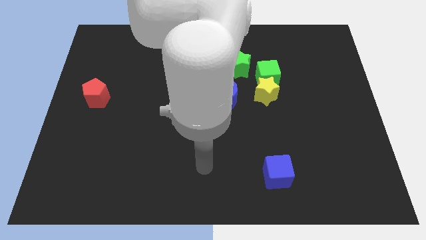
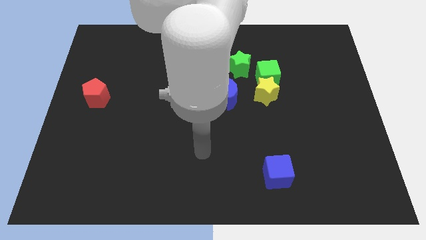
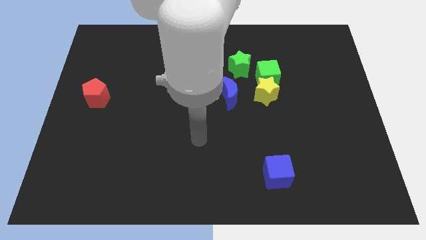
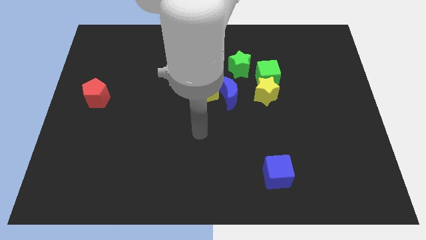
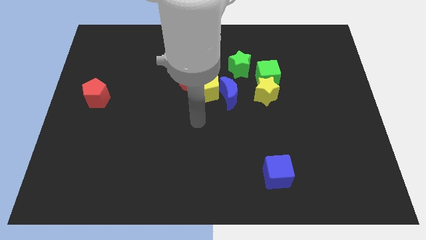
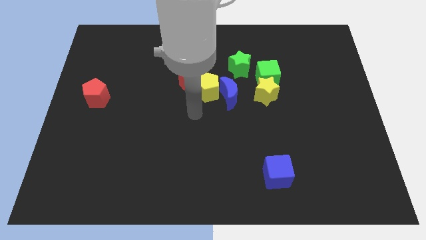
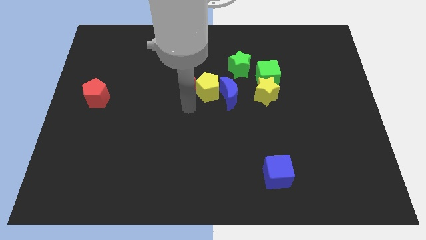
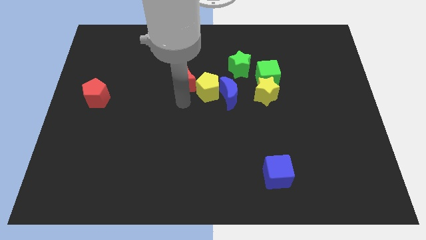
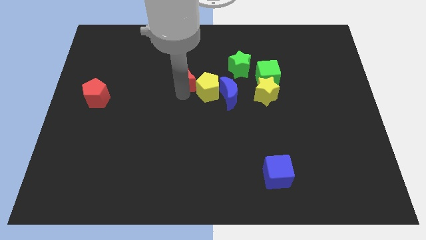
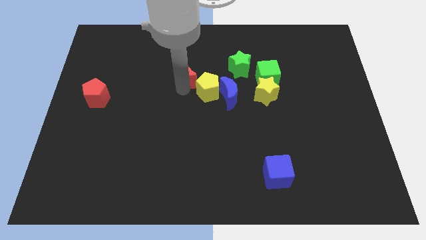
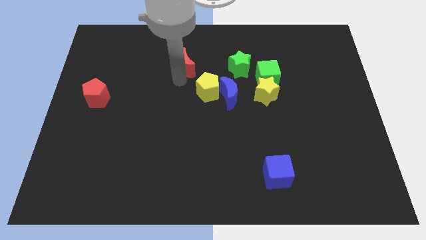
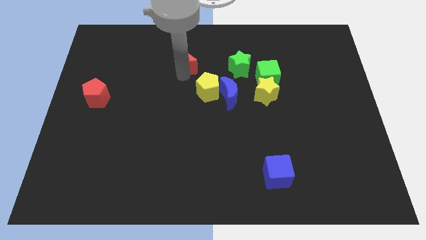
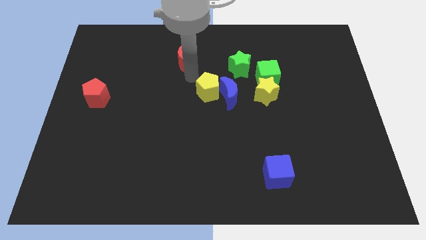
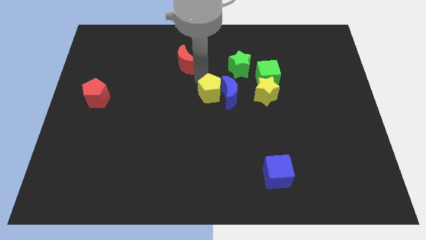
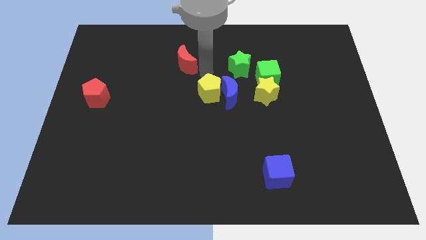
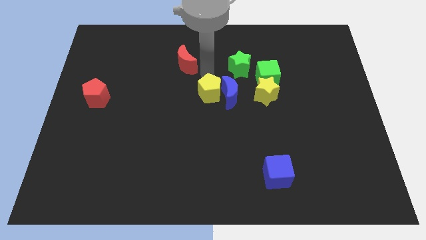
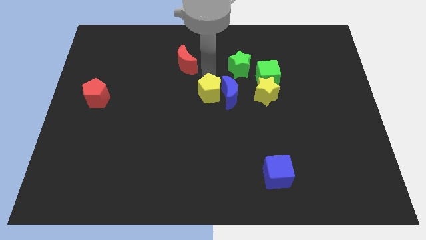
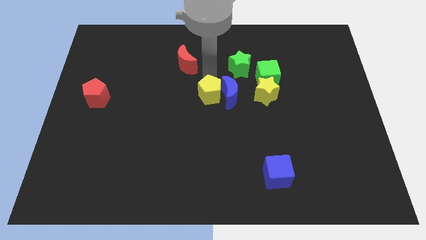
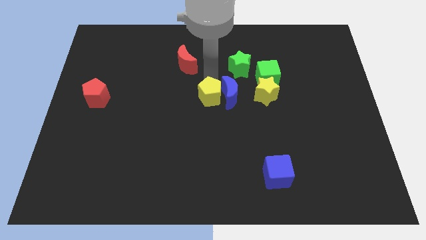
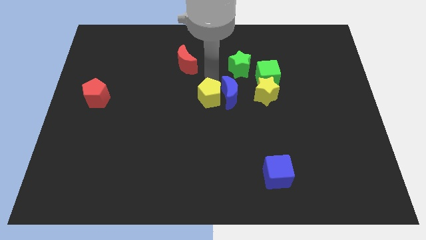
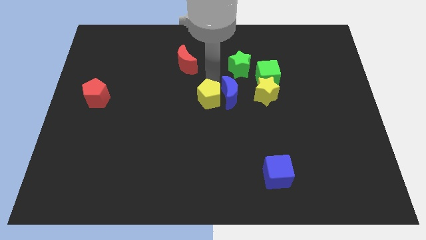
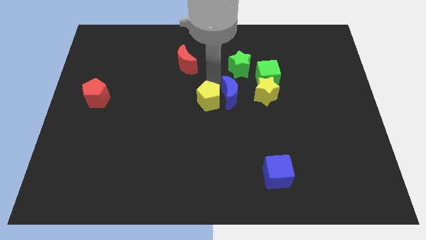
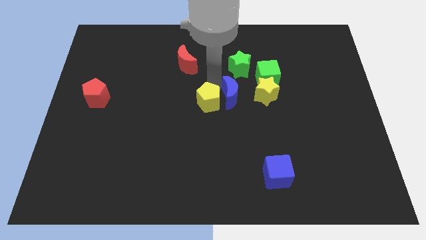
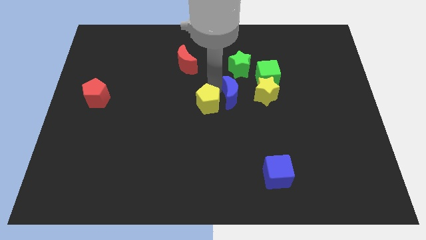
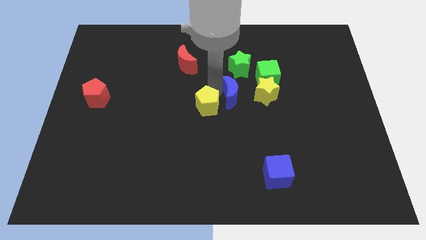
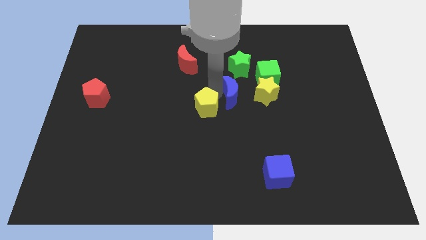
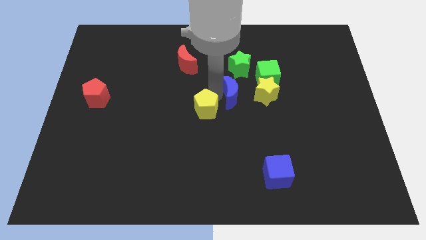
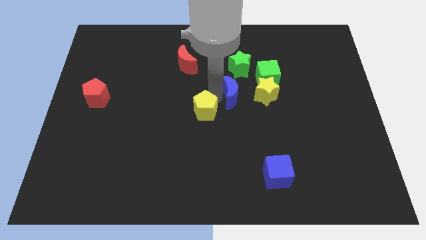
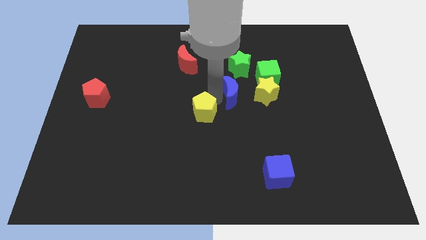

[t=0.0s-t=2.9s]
separate the yellow pentagon from the blue moon and red moon

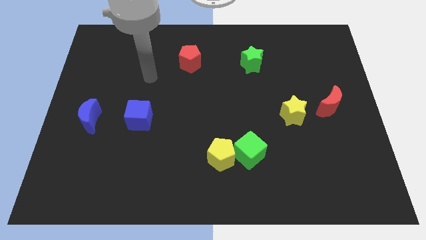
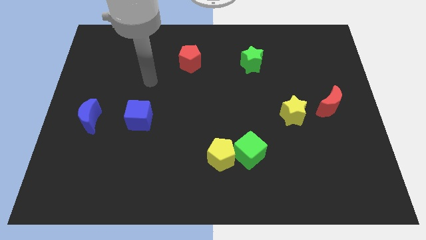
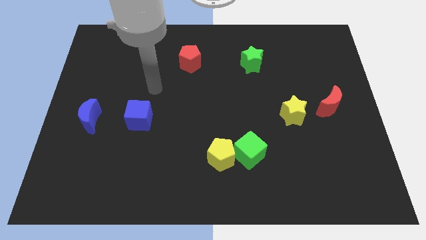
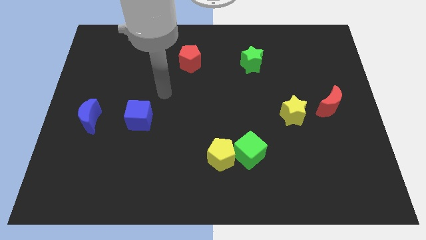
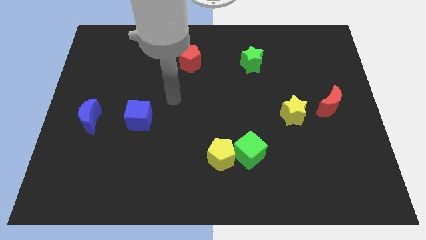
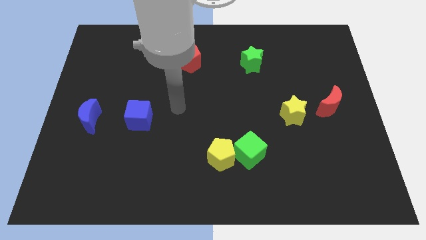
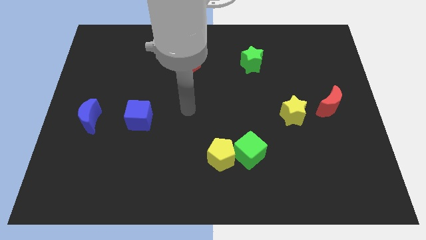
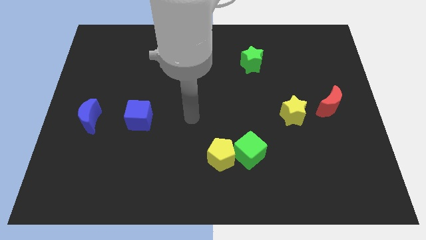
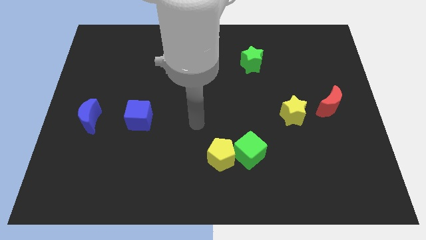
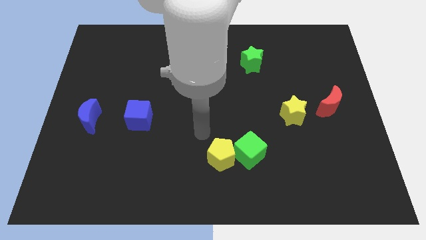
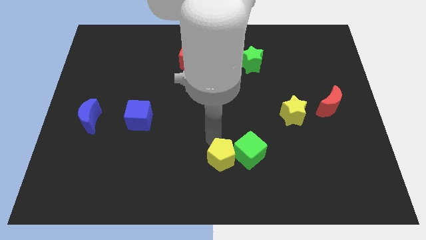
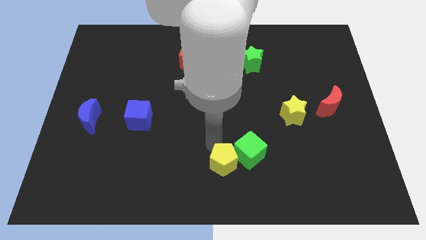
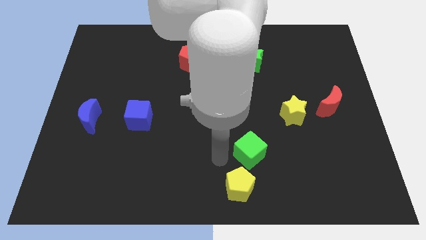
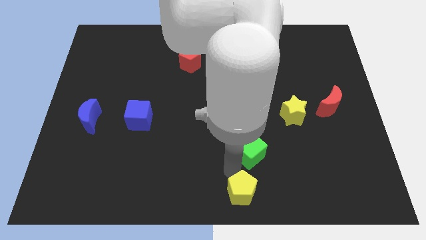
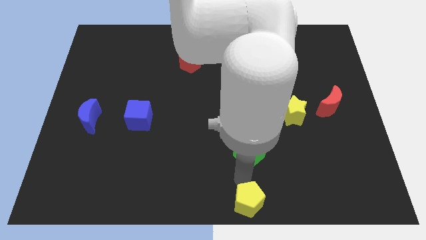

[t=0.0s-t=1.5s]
pull the green cube apart from the yellow pentagon

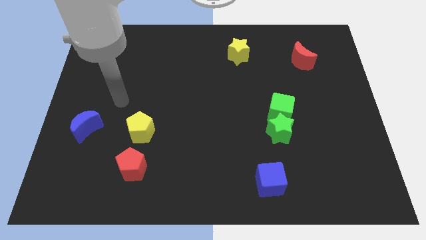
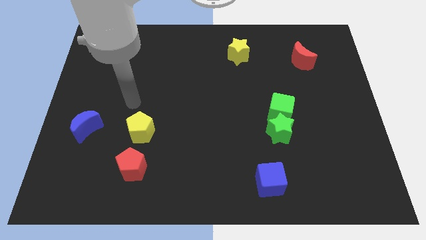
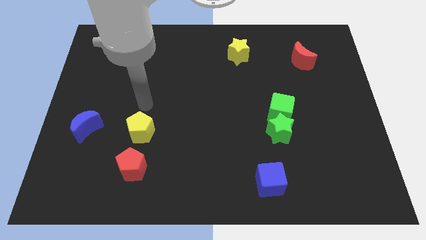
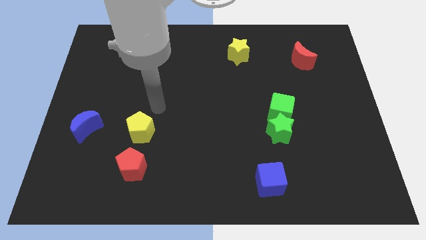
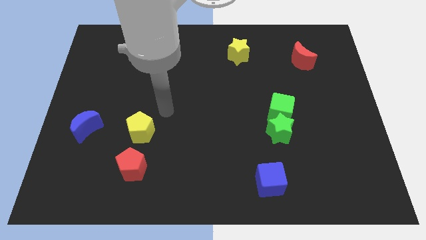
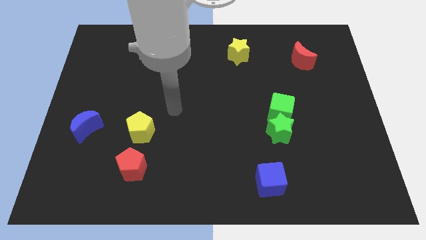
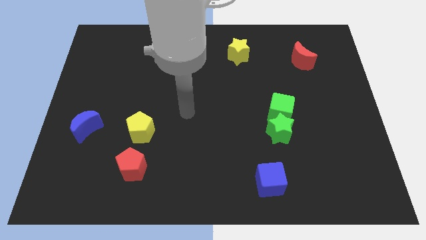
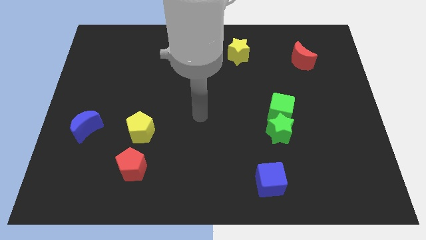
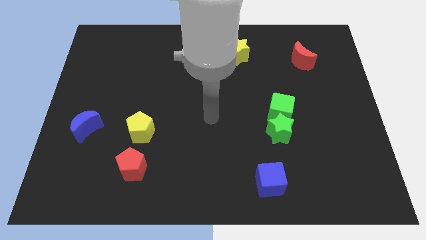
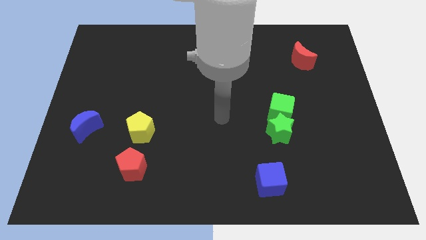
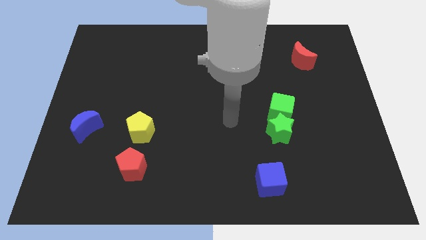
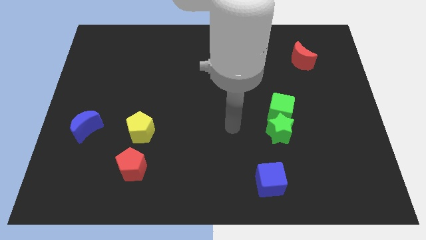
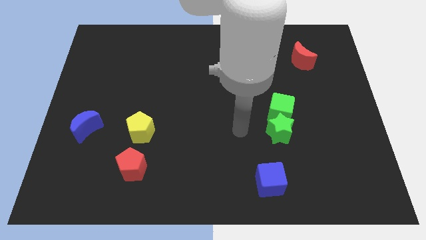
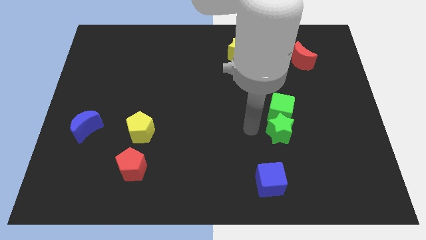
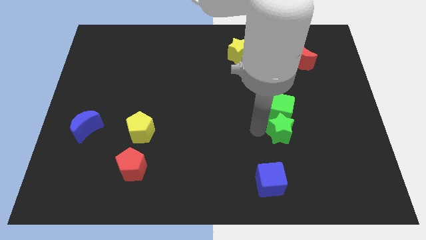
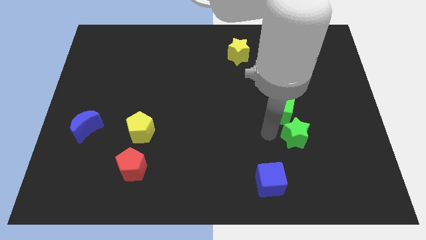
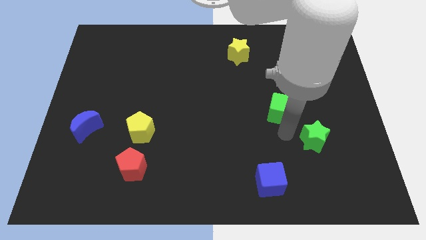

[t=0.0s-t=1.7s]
separate the green cube from the green star

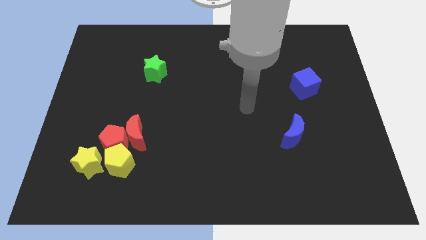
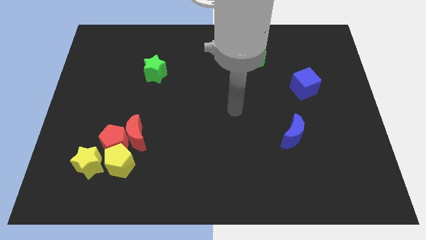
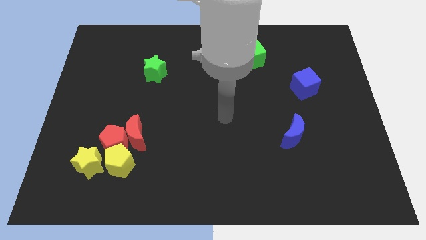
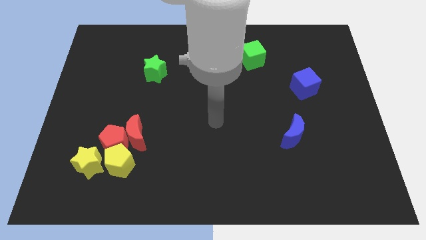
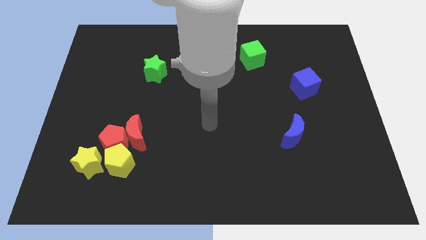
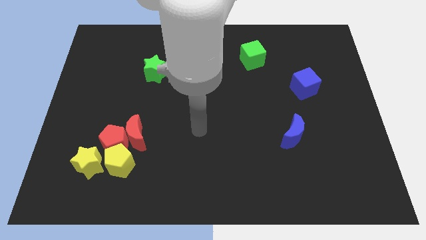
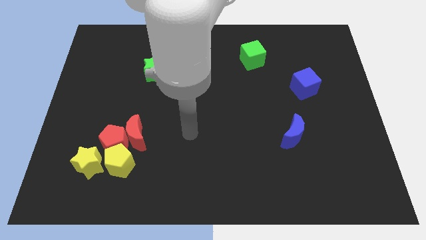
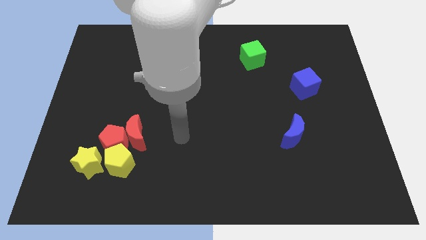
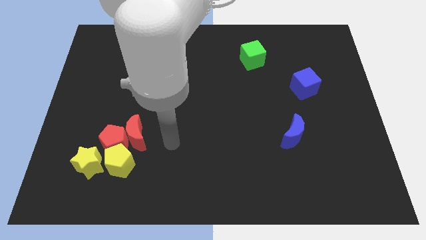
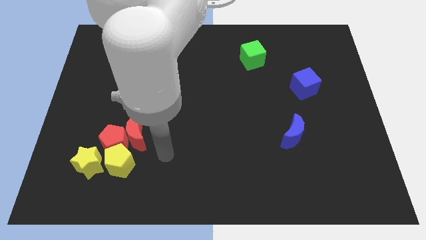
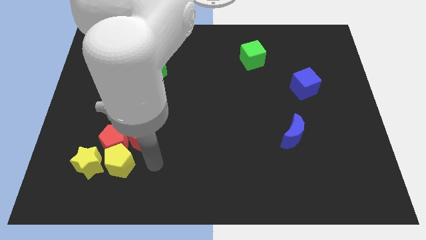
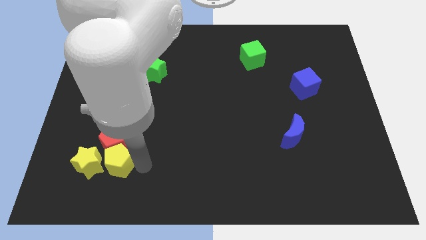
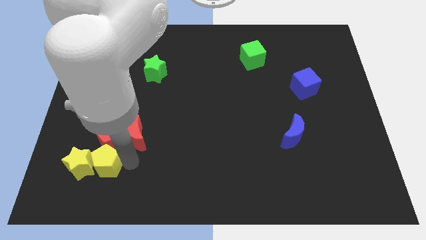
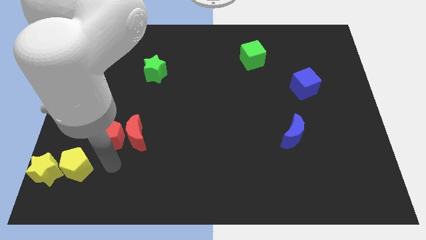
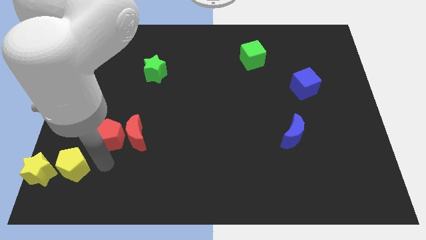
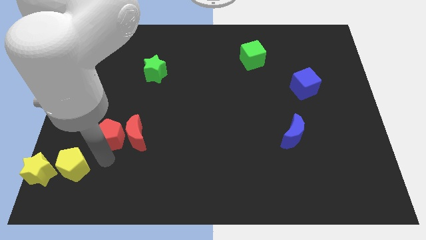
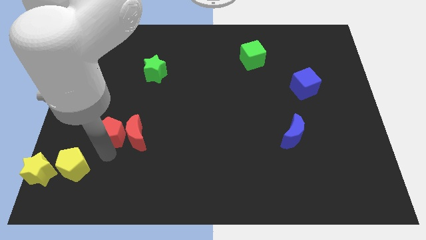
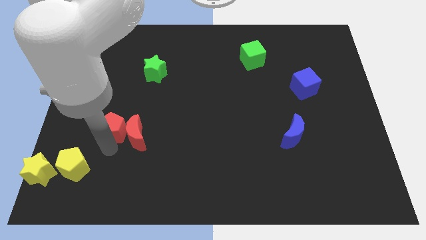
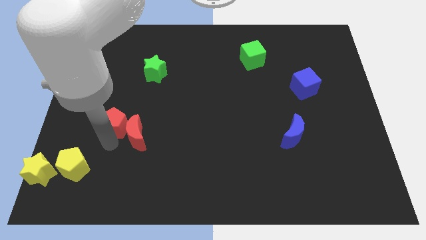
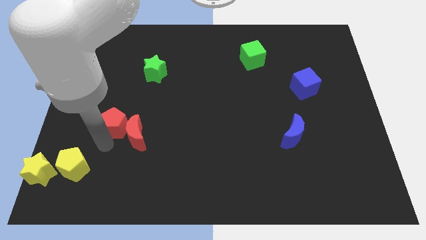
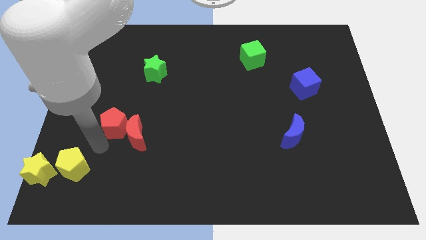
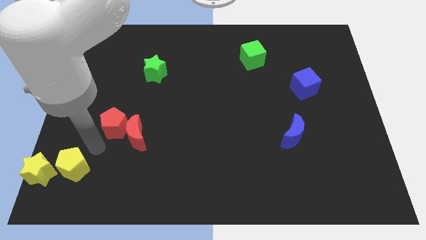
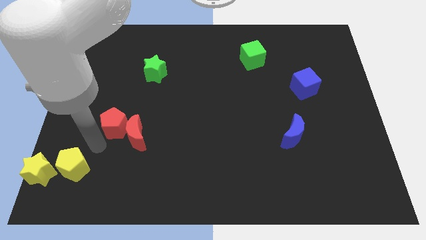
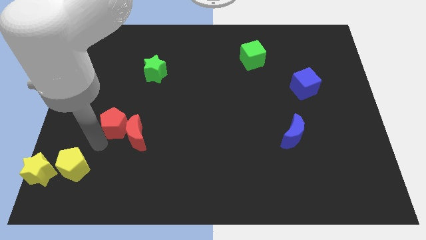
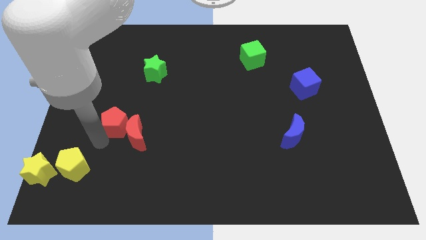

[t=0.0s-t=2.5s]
move the red pentagon away from the group

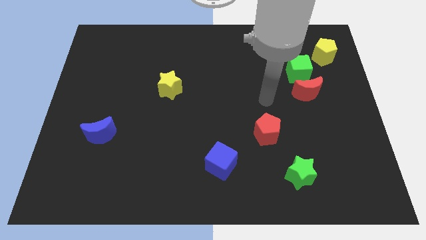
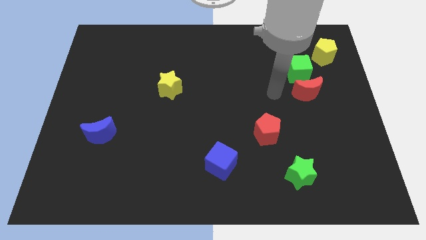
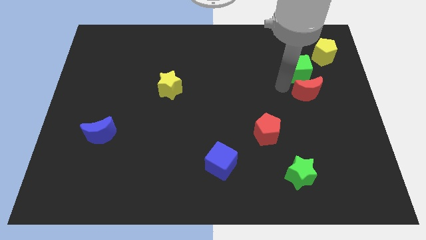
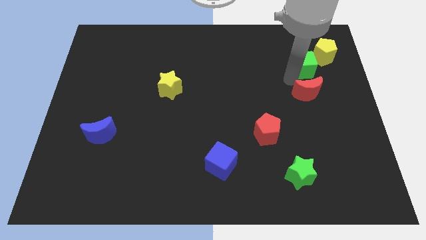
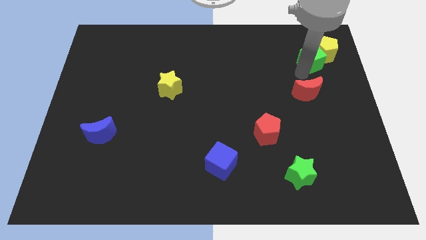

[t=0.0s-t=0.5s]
separate the red moon from the green cube

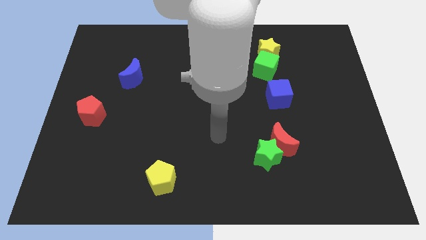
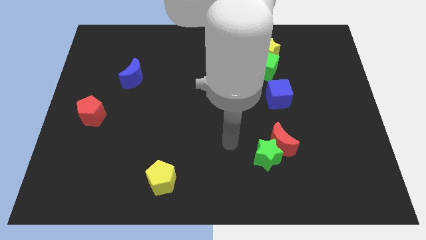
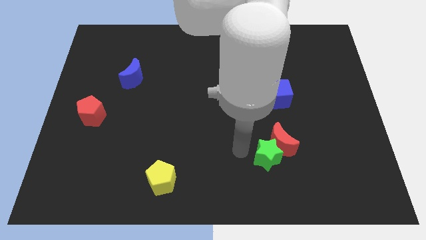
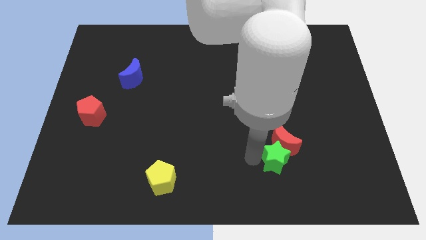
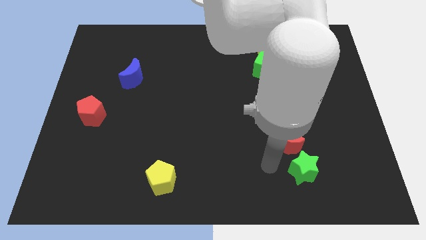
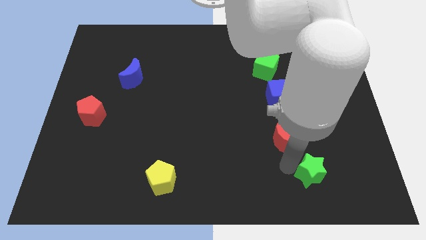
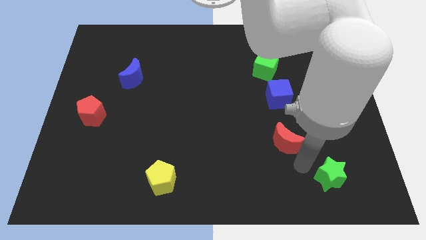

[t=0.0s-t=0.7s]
separate the red moon from the green star
